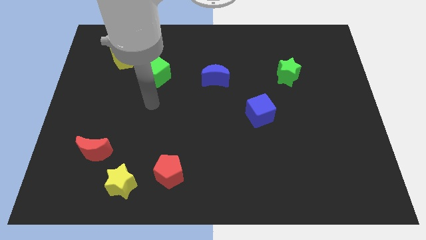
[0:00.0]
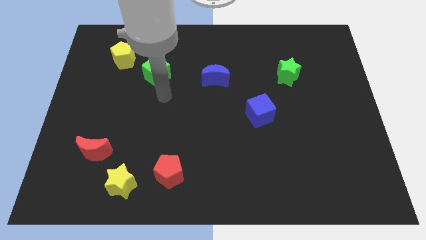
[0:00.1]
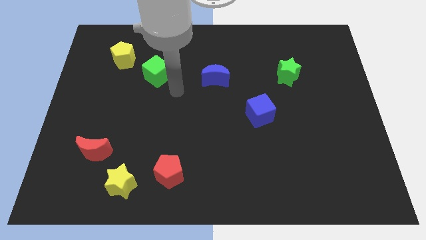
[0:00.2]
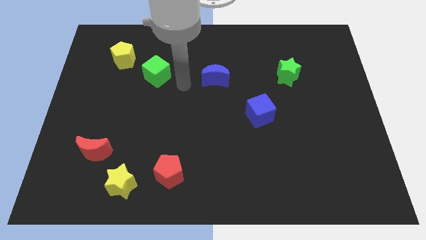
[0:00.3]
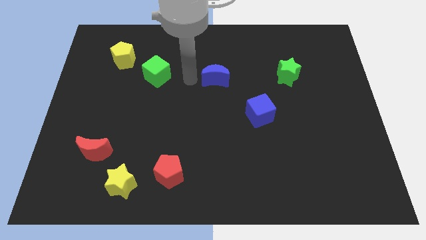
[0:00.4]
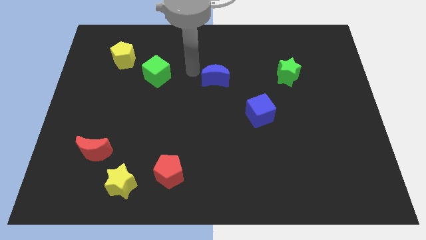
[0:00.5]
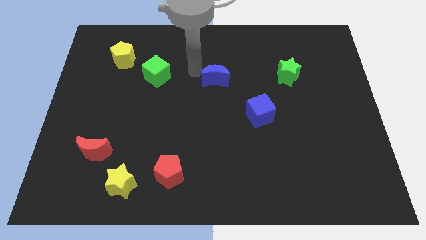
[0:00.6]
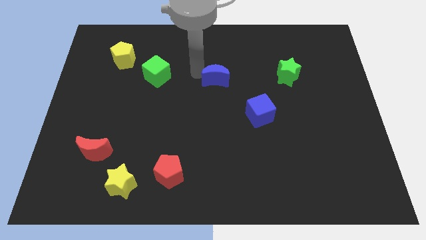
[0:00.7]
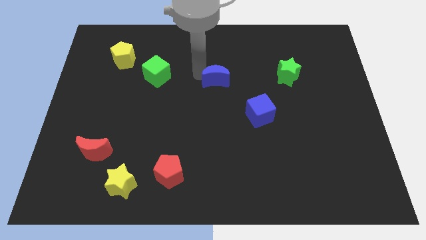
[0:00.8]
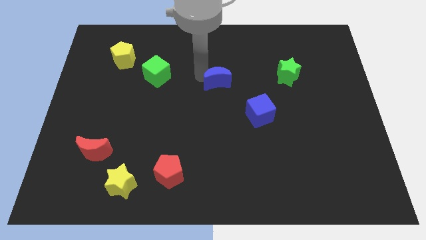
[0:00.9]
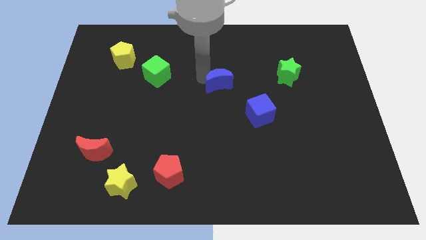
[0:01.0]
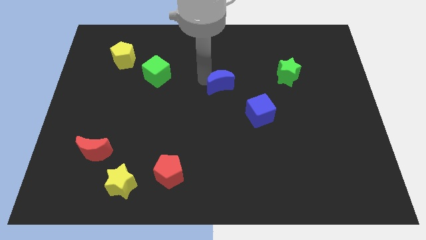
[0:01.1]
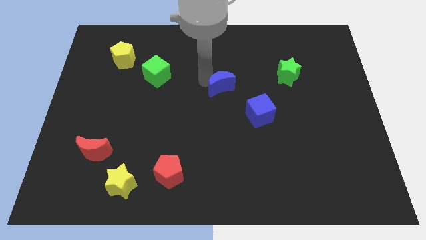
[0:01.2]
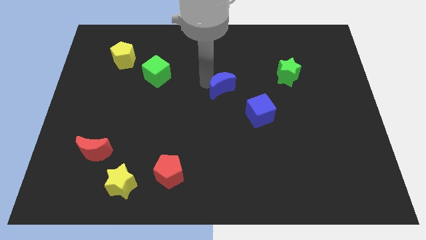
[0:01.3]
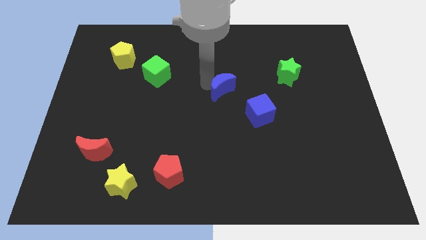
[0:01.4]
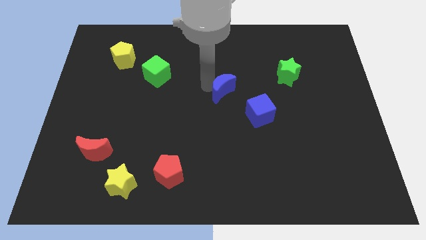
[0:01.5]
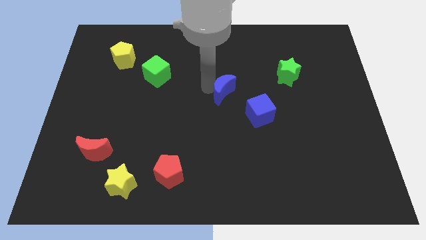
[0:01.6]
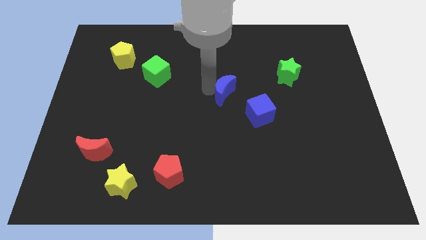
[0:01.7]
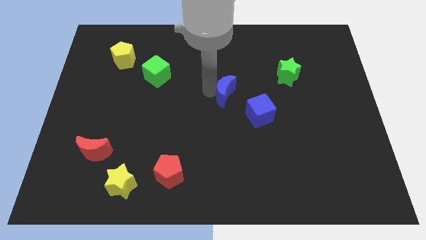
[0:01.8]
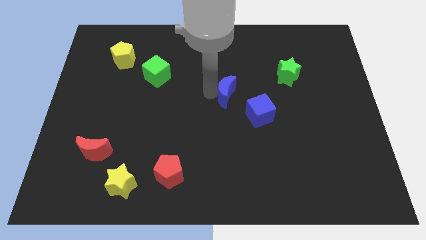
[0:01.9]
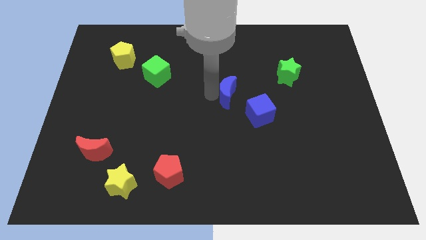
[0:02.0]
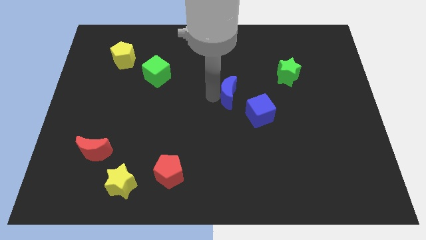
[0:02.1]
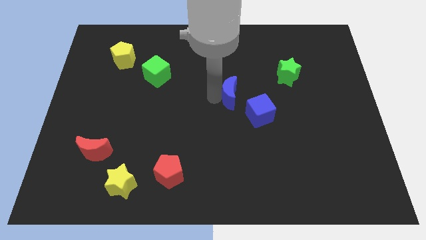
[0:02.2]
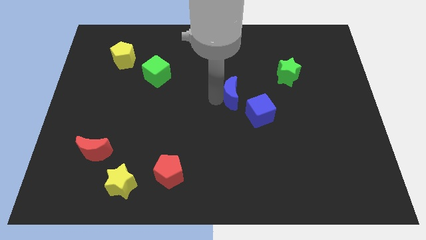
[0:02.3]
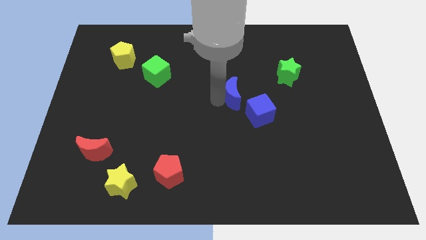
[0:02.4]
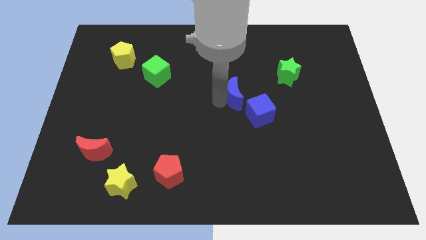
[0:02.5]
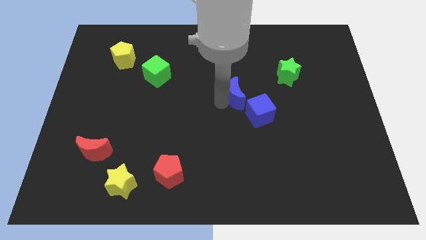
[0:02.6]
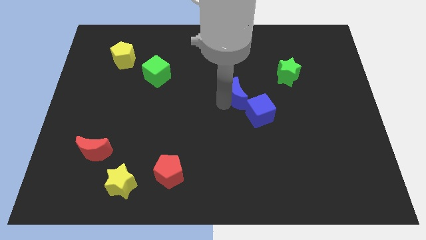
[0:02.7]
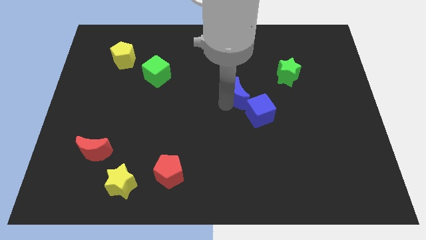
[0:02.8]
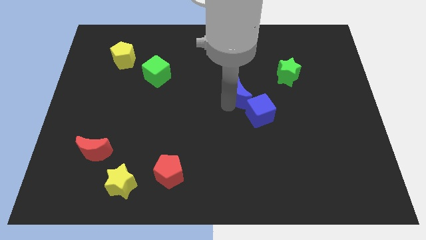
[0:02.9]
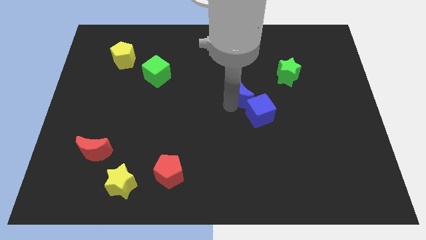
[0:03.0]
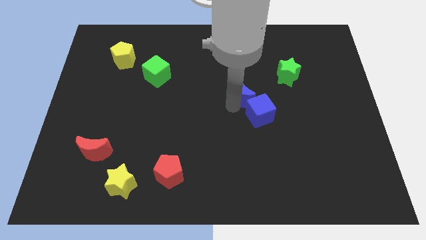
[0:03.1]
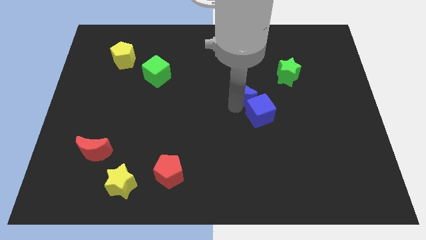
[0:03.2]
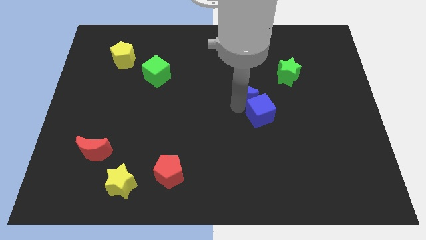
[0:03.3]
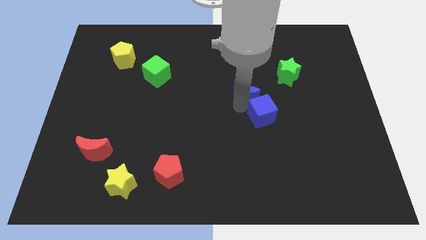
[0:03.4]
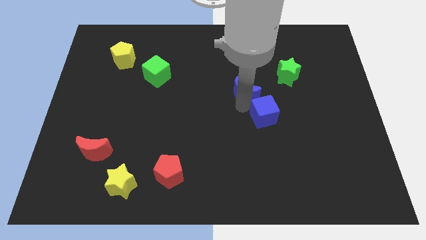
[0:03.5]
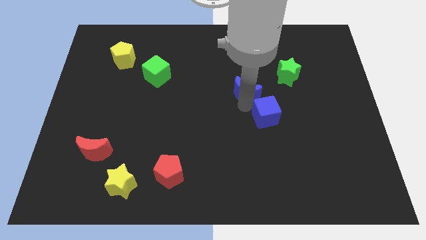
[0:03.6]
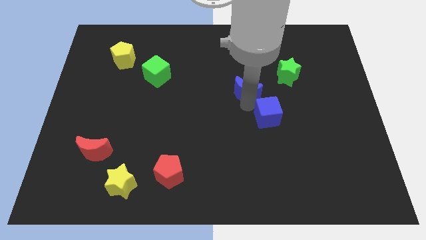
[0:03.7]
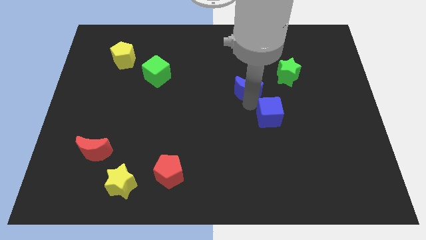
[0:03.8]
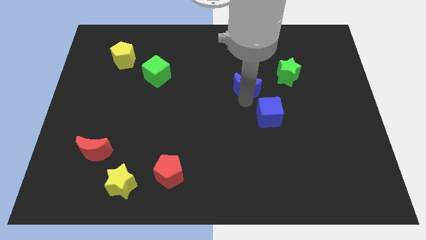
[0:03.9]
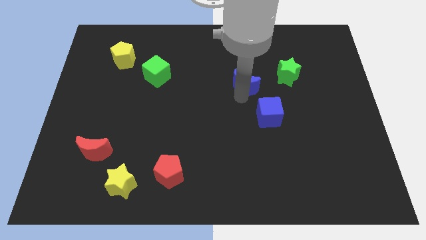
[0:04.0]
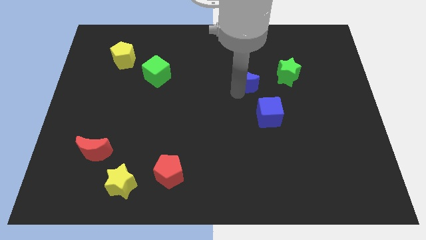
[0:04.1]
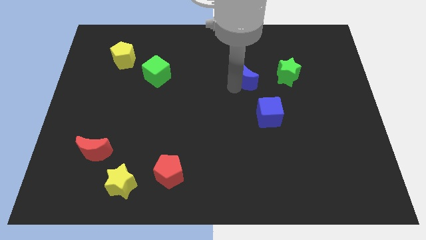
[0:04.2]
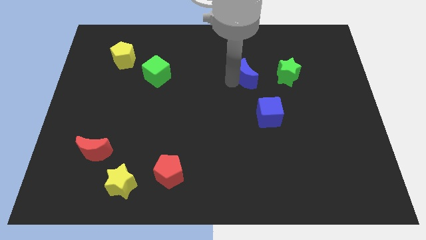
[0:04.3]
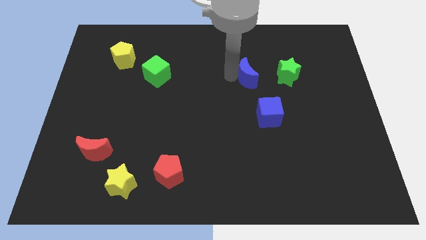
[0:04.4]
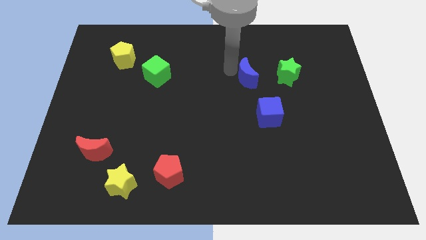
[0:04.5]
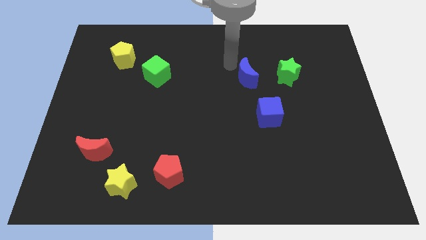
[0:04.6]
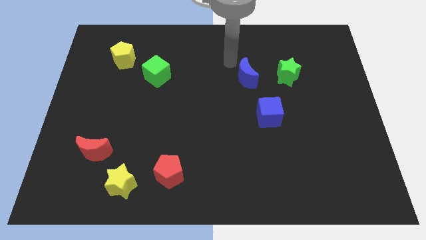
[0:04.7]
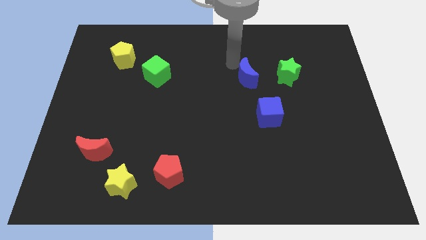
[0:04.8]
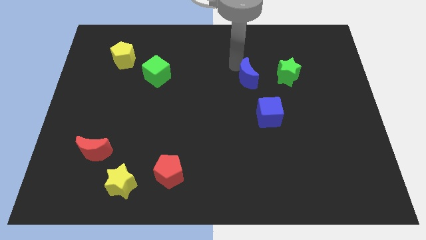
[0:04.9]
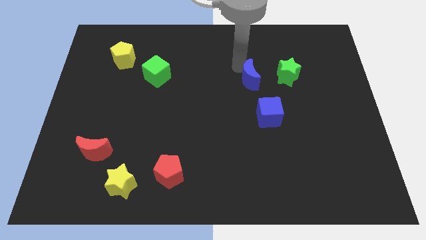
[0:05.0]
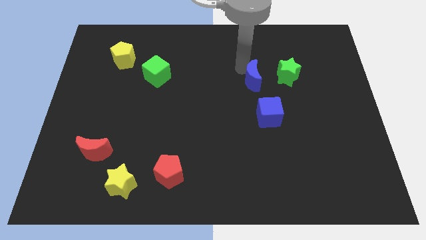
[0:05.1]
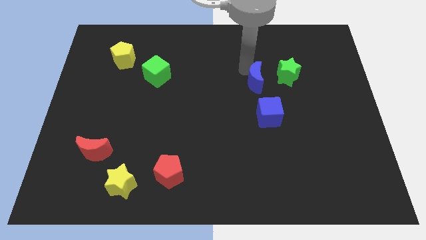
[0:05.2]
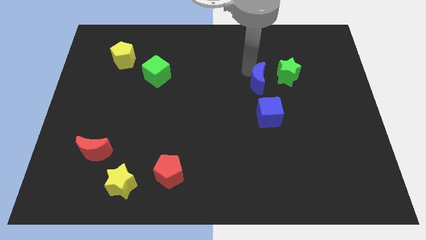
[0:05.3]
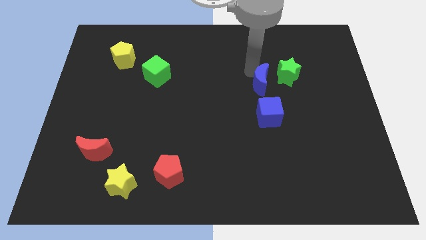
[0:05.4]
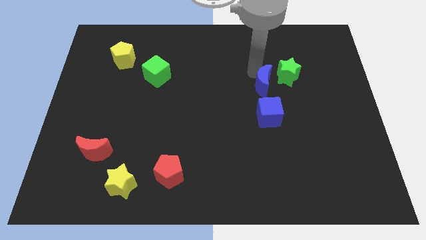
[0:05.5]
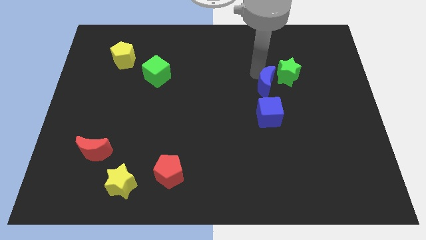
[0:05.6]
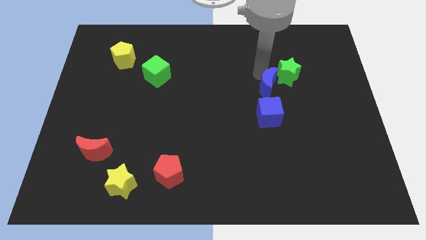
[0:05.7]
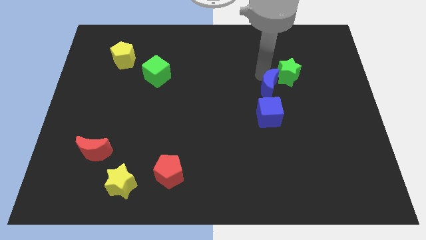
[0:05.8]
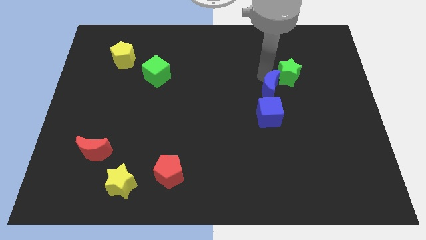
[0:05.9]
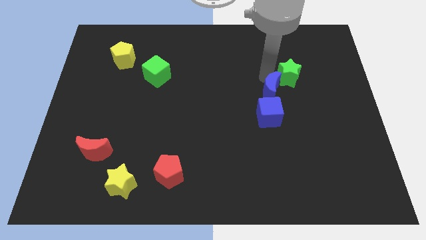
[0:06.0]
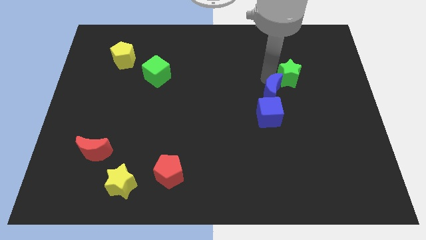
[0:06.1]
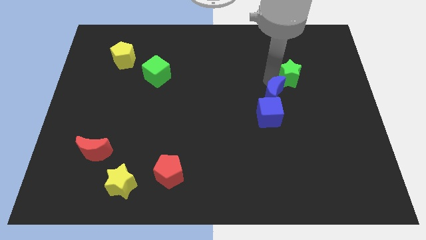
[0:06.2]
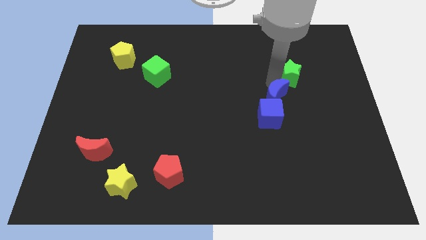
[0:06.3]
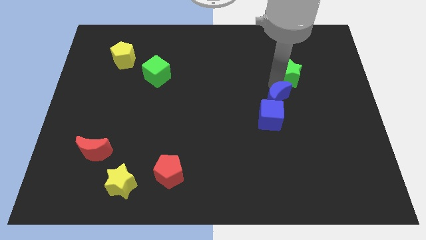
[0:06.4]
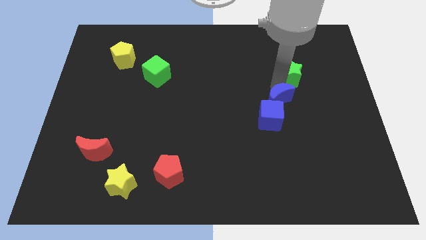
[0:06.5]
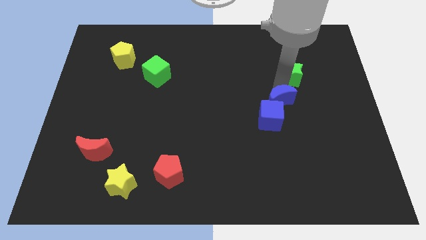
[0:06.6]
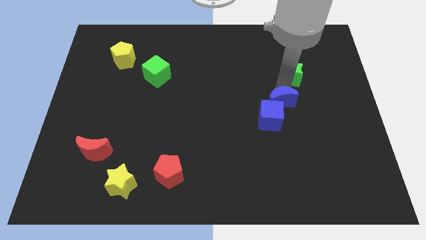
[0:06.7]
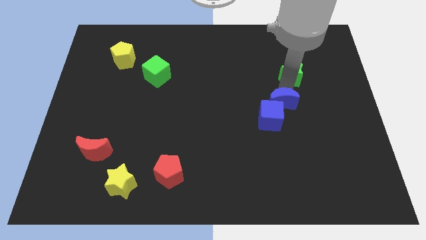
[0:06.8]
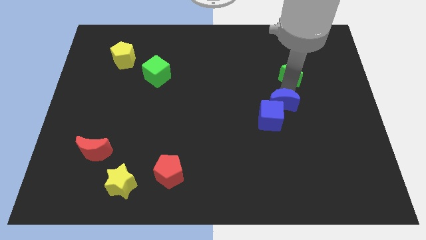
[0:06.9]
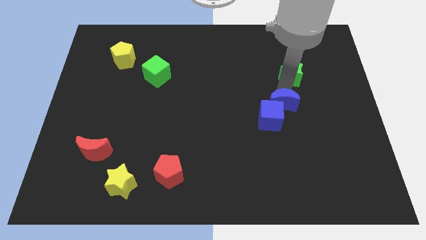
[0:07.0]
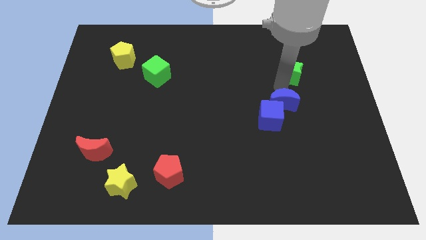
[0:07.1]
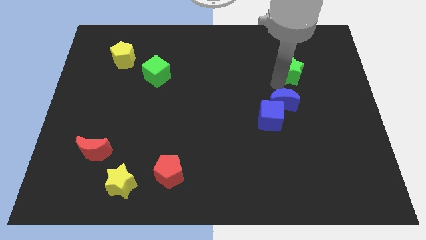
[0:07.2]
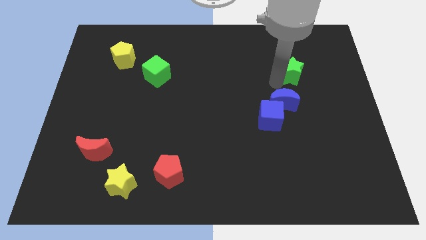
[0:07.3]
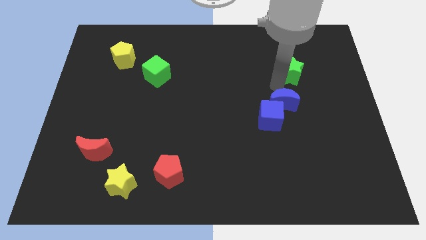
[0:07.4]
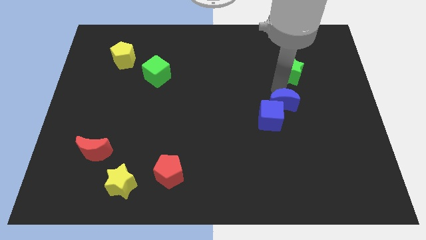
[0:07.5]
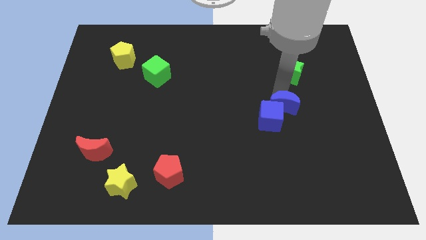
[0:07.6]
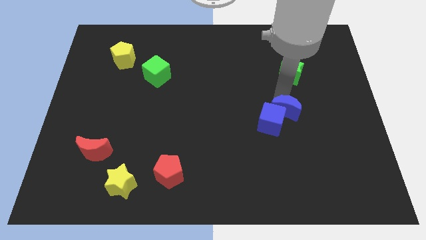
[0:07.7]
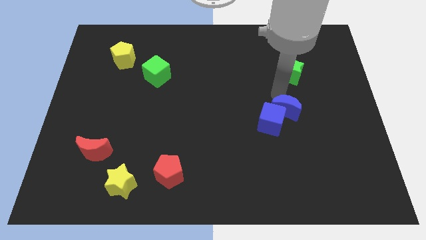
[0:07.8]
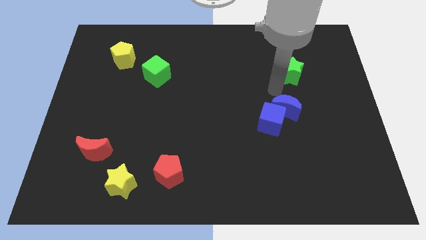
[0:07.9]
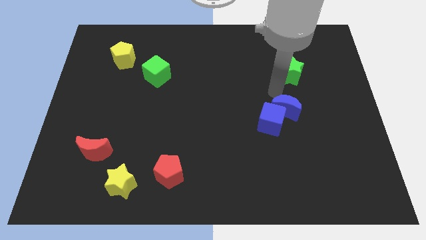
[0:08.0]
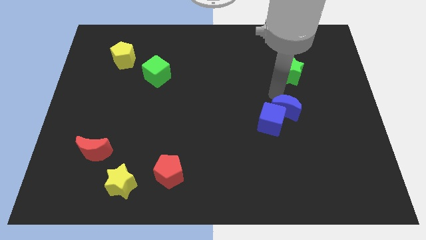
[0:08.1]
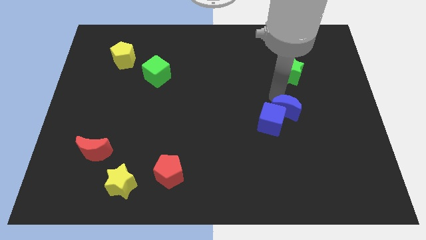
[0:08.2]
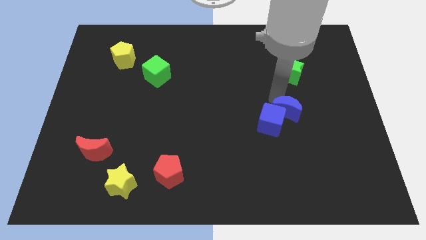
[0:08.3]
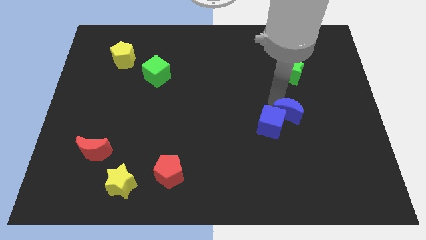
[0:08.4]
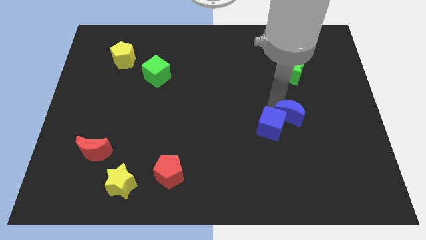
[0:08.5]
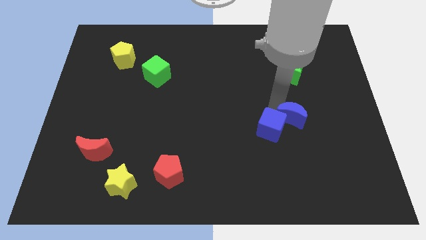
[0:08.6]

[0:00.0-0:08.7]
slide the blue moon downwards and right
